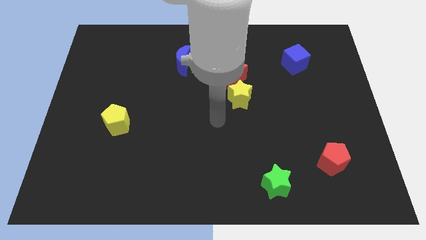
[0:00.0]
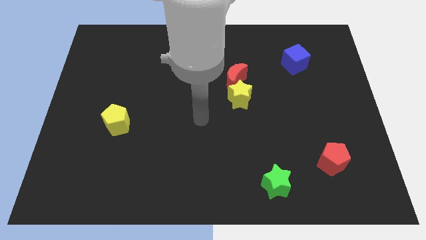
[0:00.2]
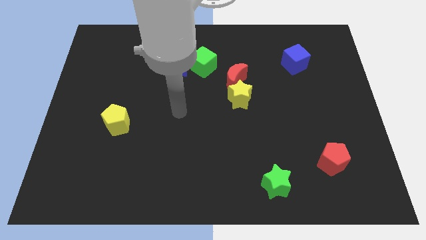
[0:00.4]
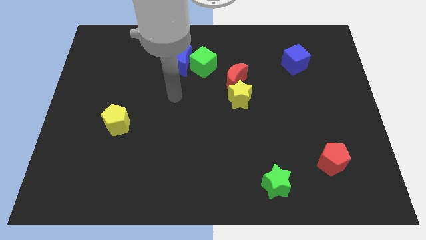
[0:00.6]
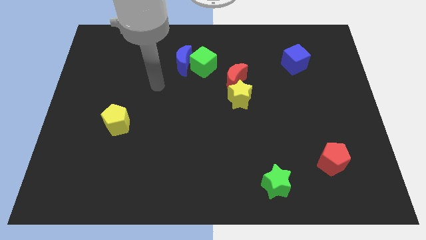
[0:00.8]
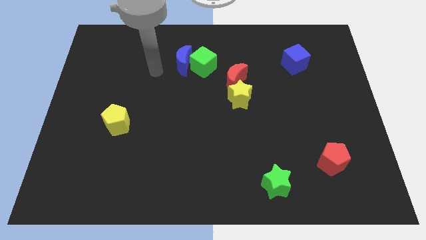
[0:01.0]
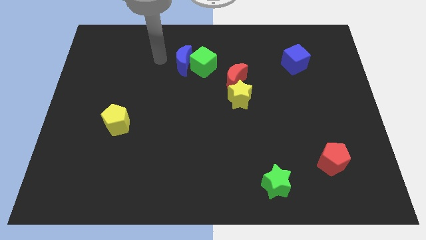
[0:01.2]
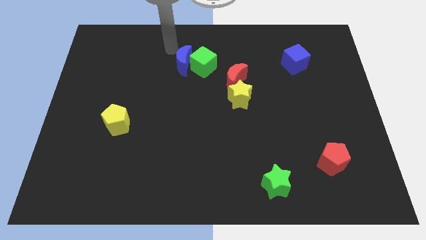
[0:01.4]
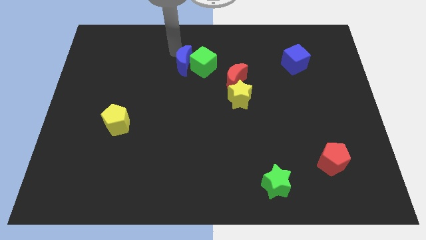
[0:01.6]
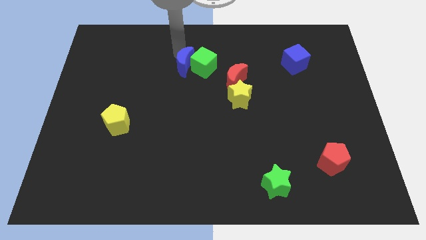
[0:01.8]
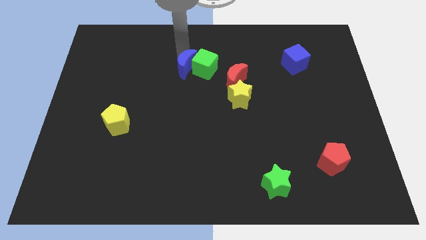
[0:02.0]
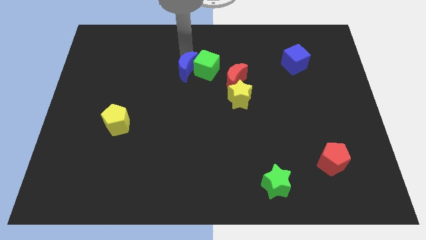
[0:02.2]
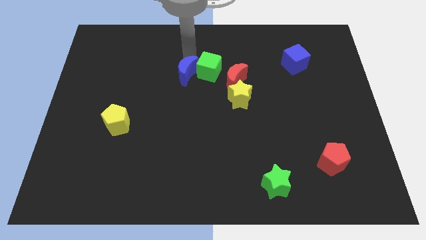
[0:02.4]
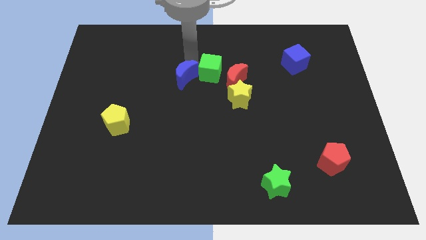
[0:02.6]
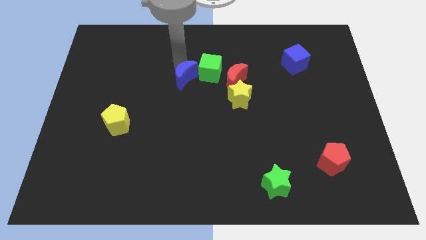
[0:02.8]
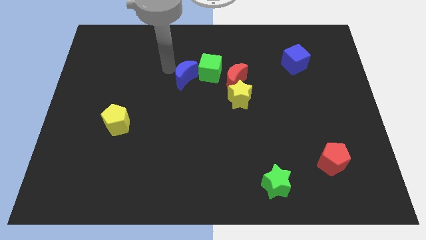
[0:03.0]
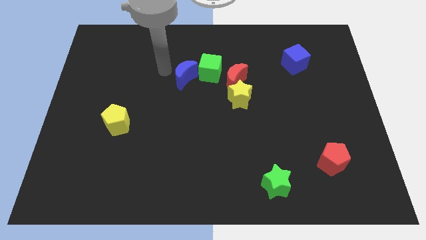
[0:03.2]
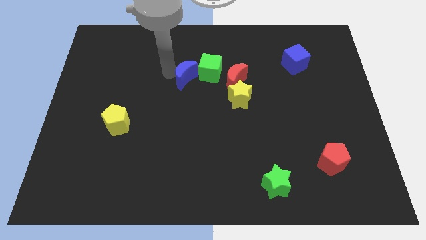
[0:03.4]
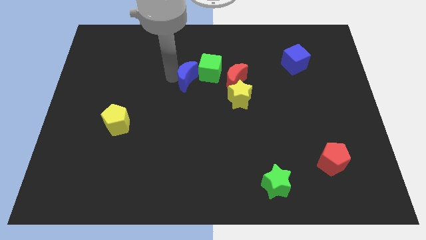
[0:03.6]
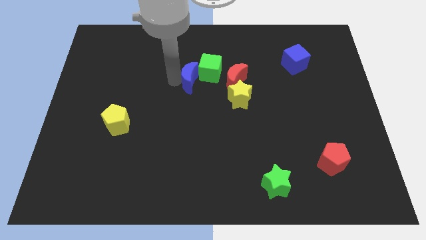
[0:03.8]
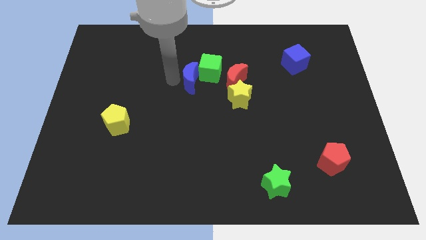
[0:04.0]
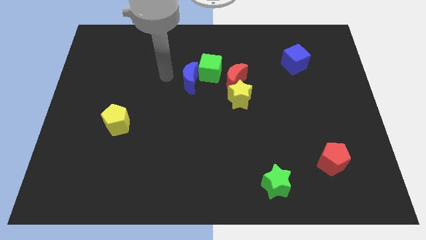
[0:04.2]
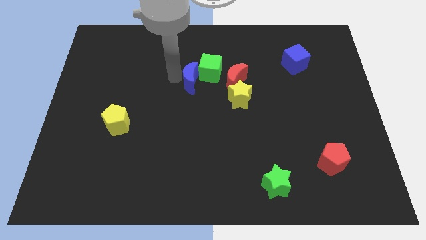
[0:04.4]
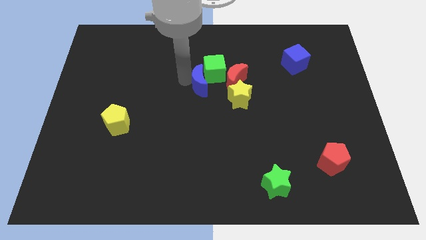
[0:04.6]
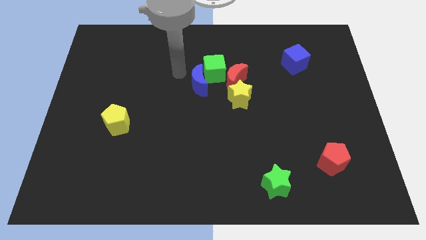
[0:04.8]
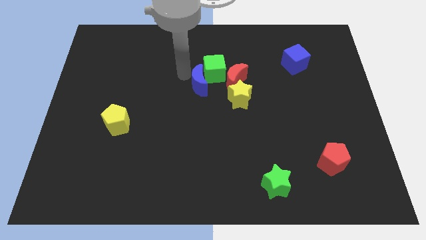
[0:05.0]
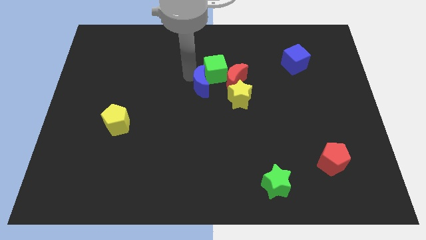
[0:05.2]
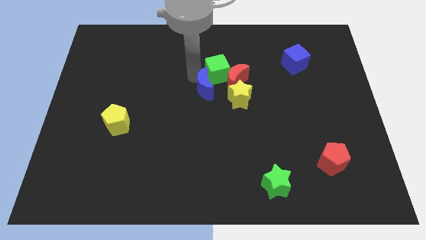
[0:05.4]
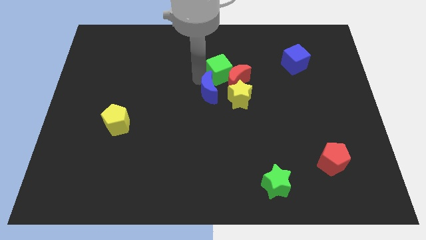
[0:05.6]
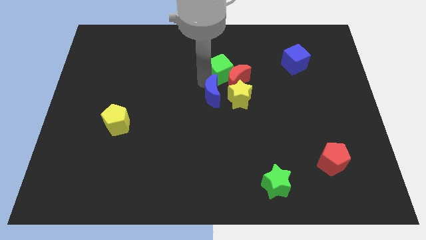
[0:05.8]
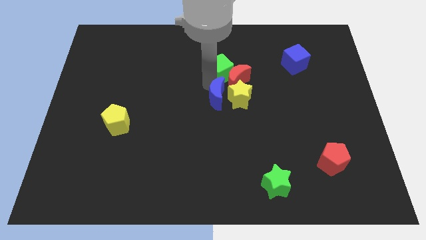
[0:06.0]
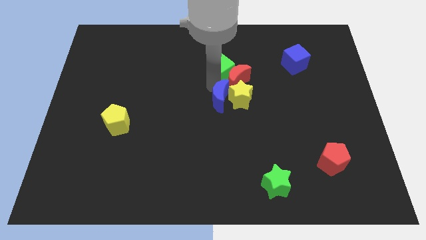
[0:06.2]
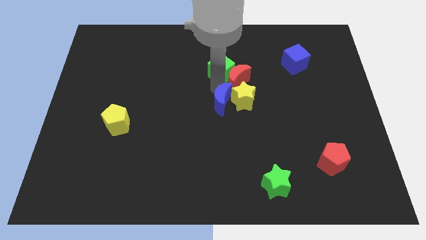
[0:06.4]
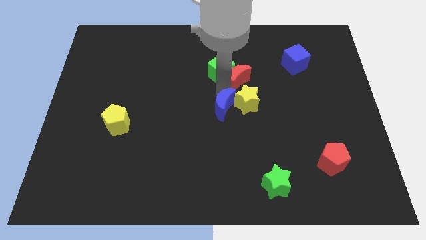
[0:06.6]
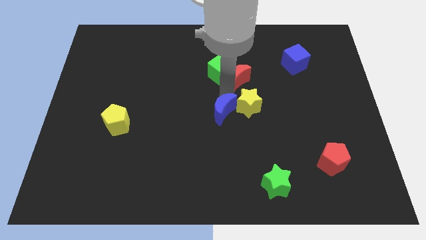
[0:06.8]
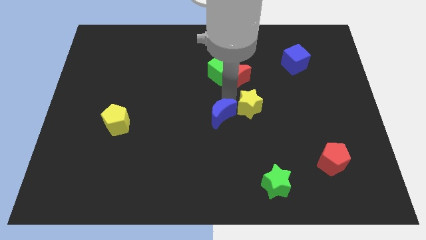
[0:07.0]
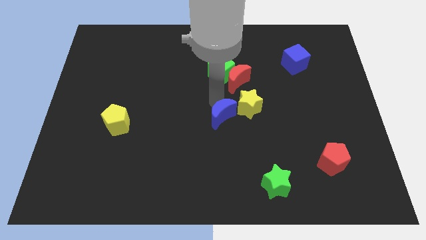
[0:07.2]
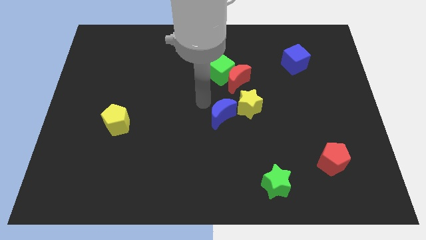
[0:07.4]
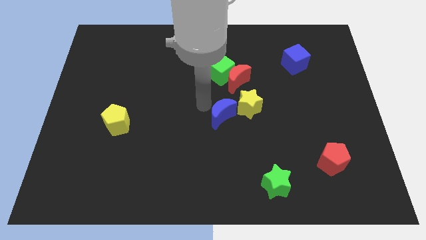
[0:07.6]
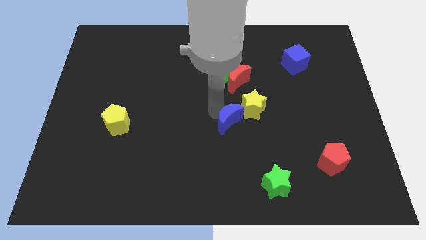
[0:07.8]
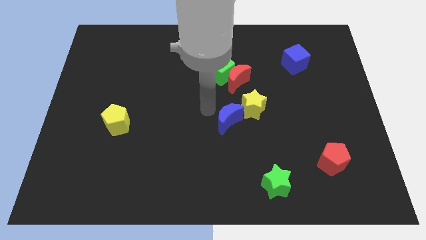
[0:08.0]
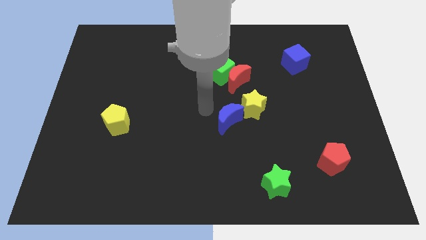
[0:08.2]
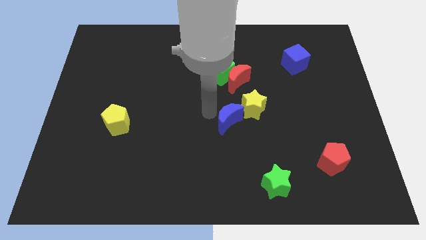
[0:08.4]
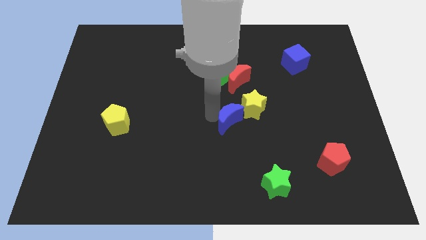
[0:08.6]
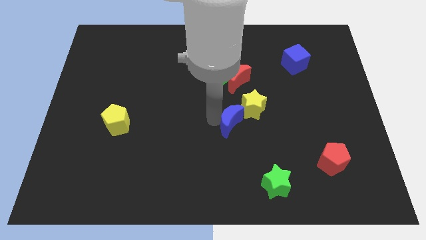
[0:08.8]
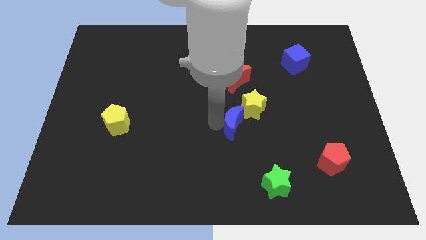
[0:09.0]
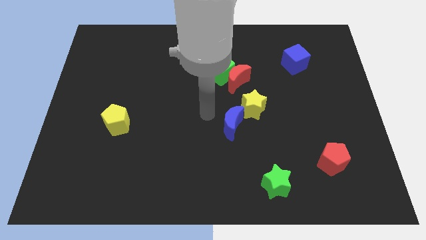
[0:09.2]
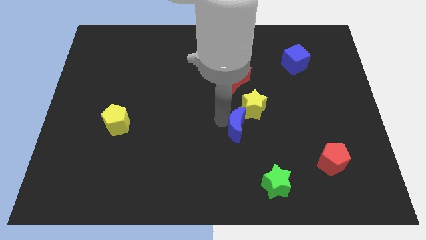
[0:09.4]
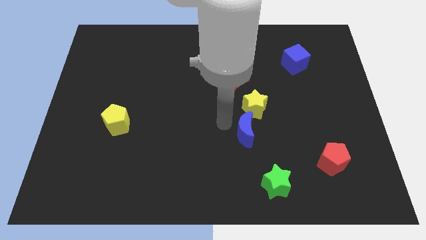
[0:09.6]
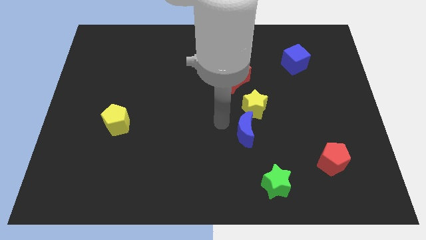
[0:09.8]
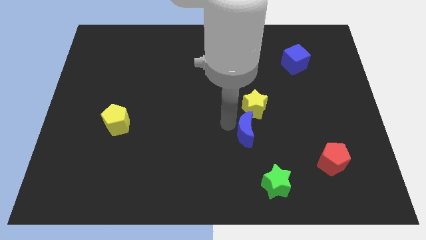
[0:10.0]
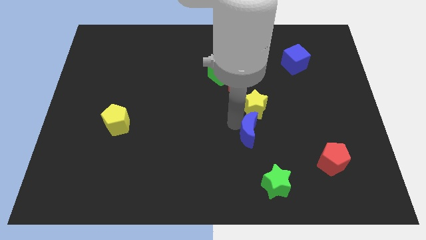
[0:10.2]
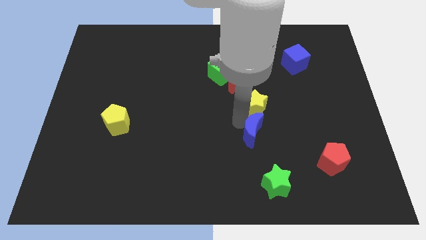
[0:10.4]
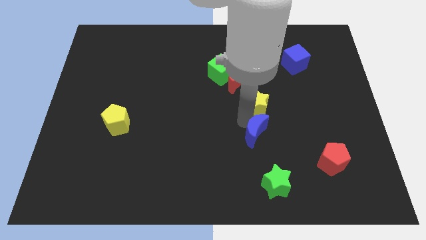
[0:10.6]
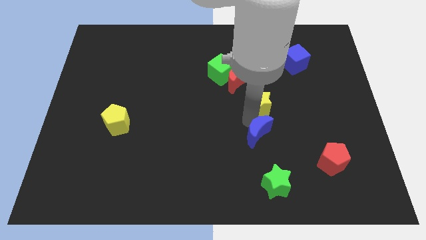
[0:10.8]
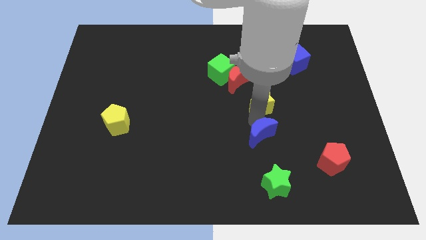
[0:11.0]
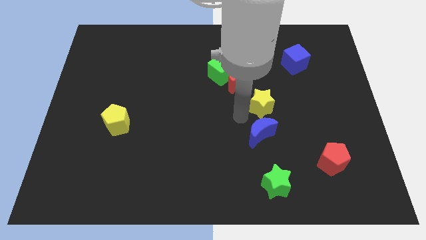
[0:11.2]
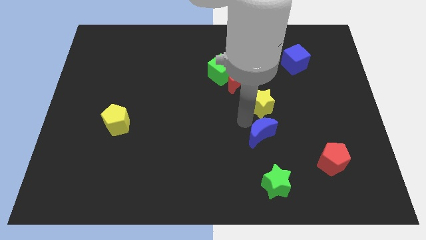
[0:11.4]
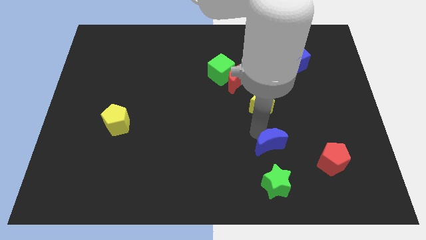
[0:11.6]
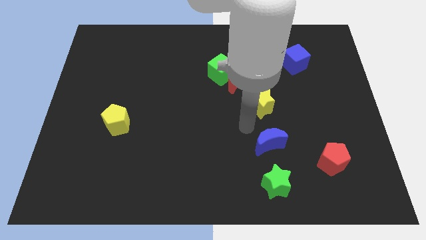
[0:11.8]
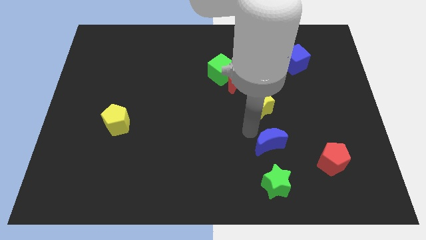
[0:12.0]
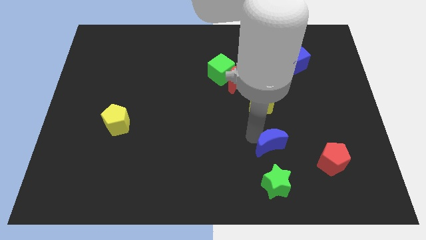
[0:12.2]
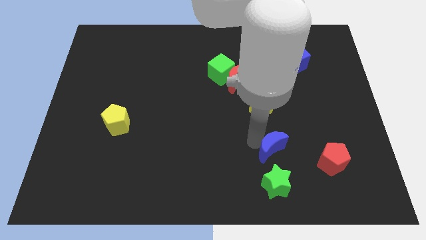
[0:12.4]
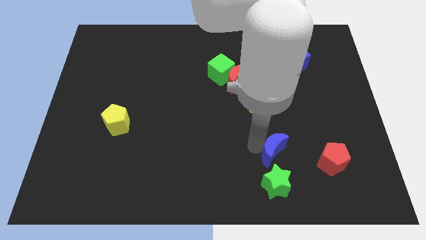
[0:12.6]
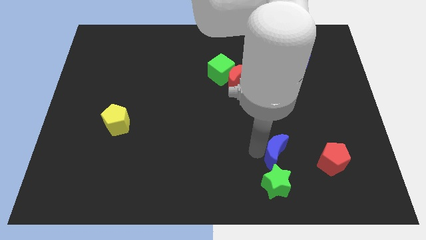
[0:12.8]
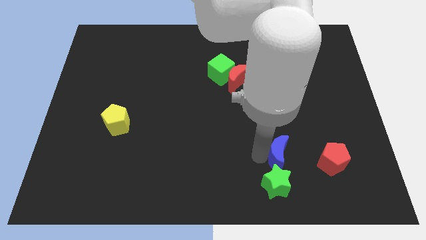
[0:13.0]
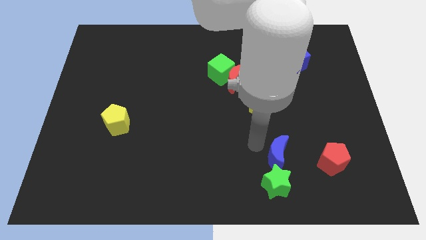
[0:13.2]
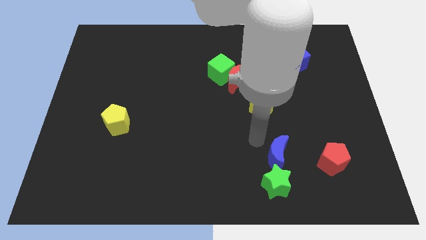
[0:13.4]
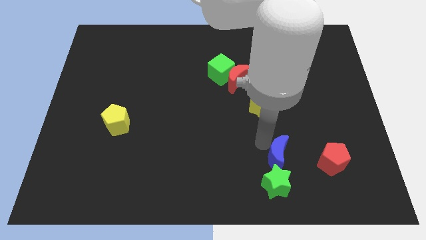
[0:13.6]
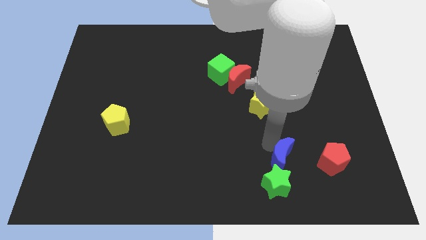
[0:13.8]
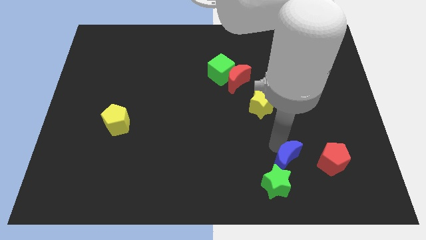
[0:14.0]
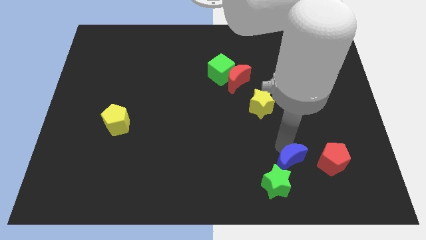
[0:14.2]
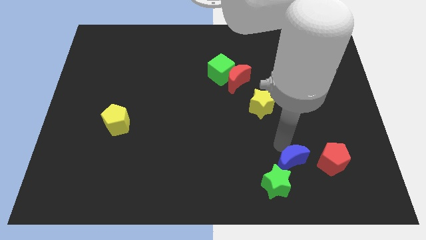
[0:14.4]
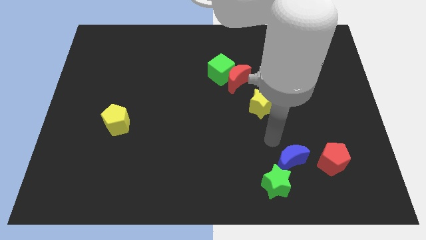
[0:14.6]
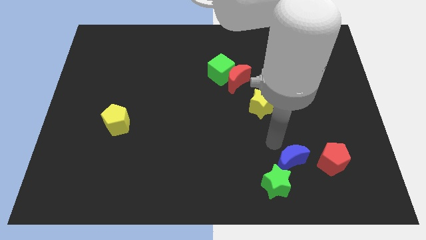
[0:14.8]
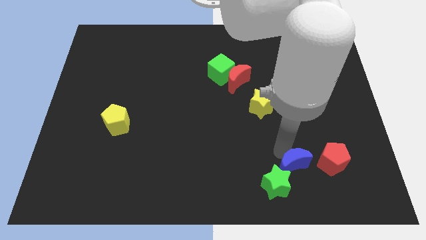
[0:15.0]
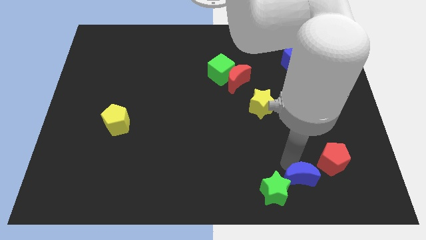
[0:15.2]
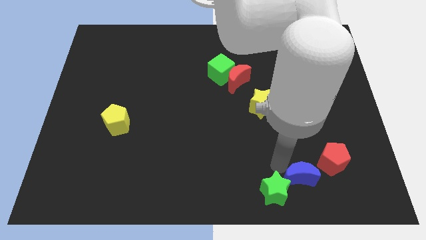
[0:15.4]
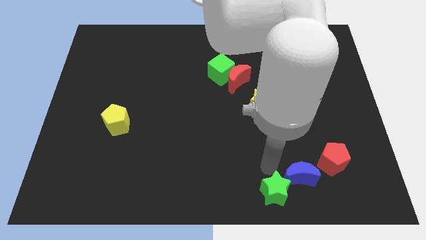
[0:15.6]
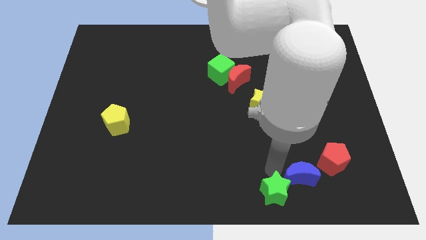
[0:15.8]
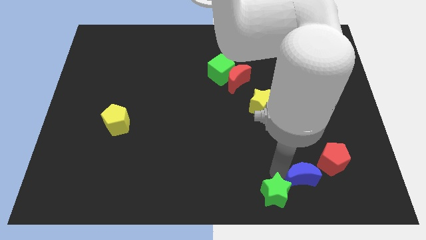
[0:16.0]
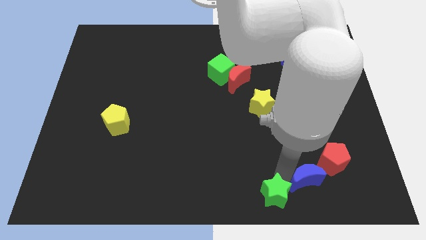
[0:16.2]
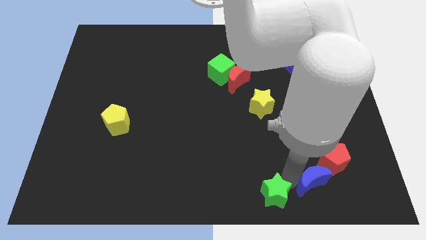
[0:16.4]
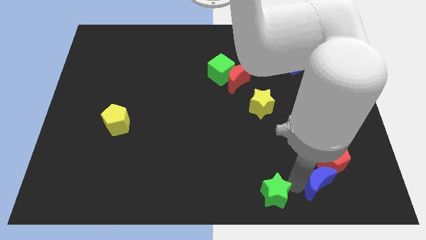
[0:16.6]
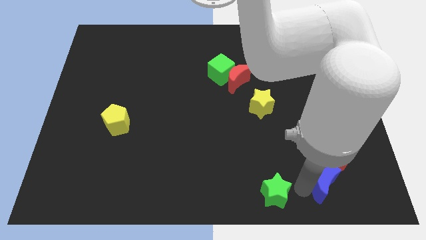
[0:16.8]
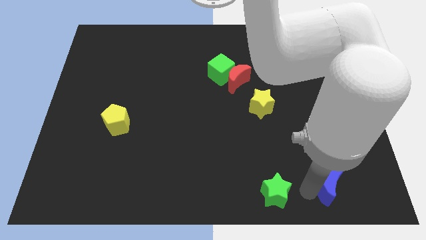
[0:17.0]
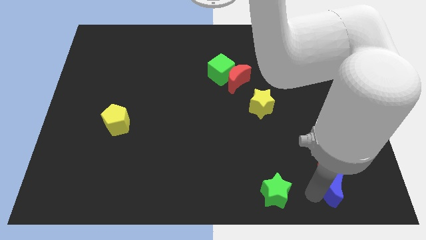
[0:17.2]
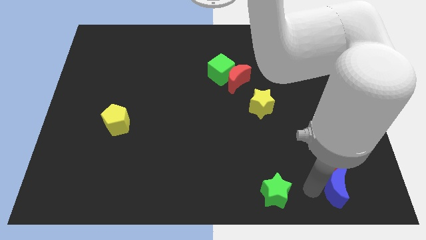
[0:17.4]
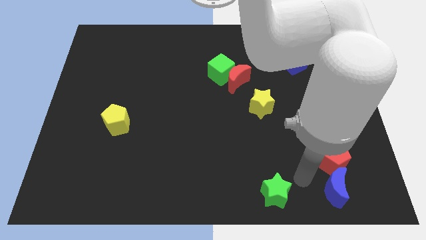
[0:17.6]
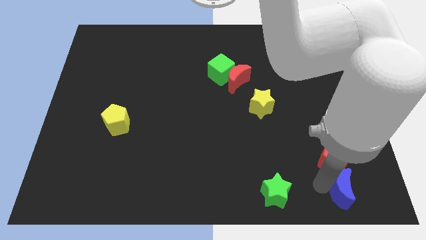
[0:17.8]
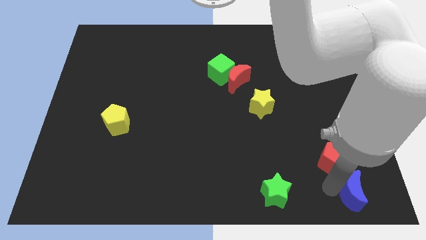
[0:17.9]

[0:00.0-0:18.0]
move the blue moon to the bottom right of the board
